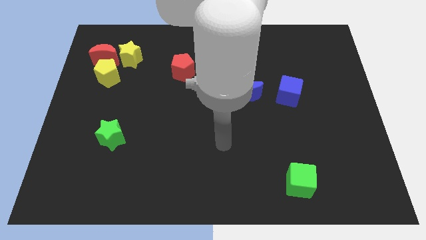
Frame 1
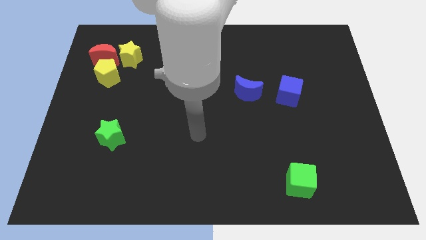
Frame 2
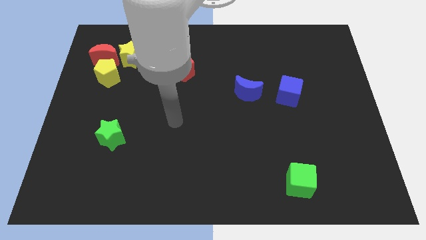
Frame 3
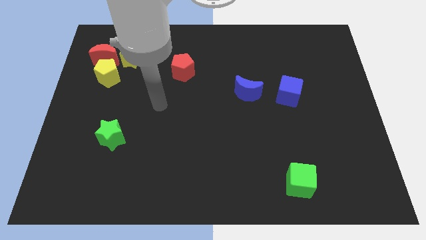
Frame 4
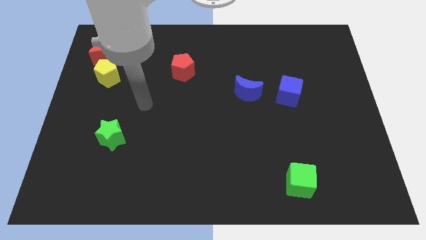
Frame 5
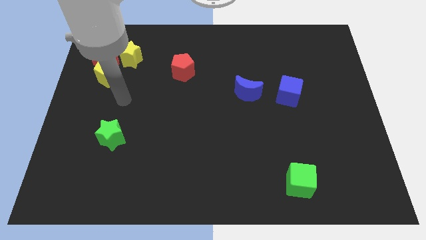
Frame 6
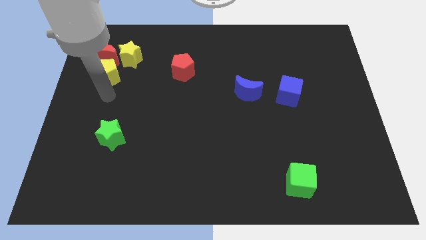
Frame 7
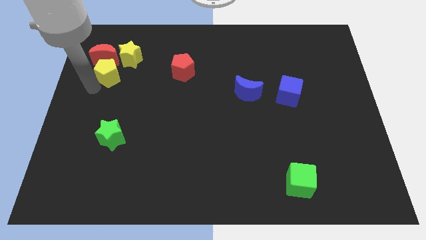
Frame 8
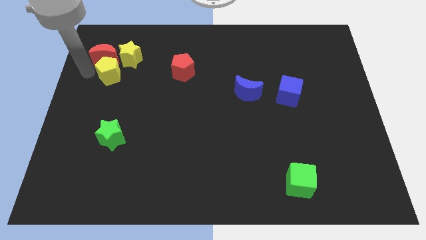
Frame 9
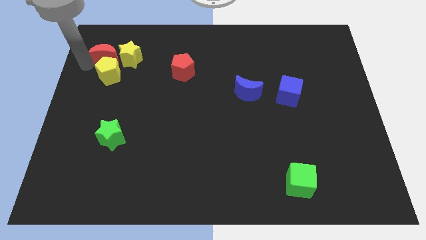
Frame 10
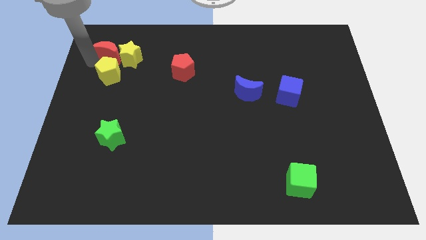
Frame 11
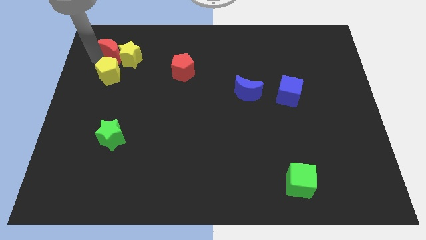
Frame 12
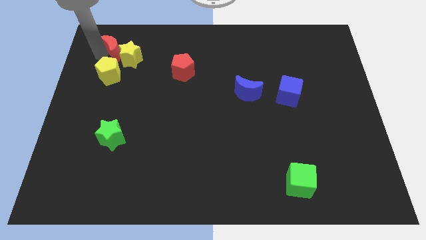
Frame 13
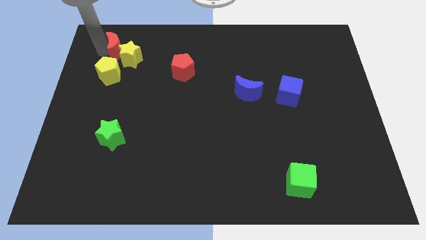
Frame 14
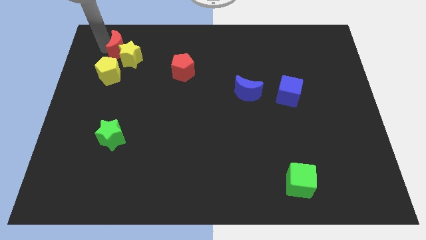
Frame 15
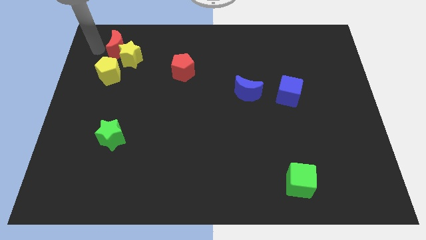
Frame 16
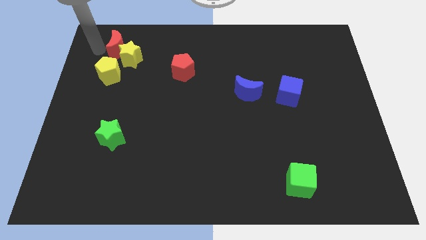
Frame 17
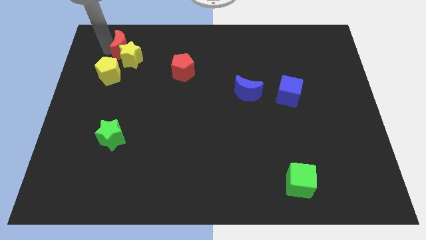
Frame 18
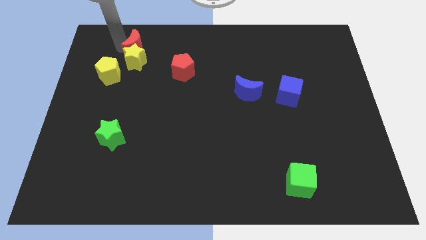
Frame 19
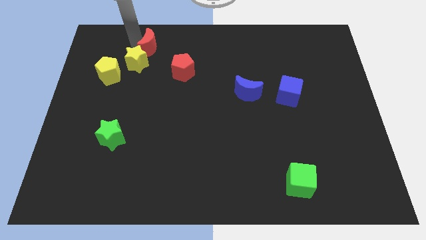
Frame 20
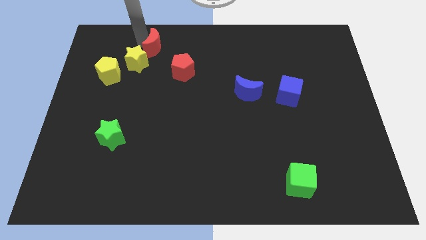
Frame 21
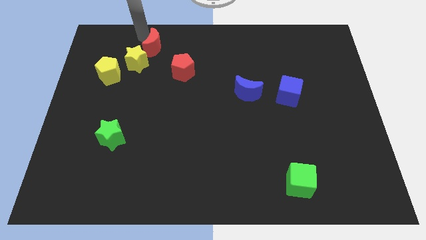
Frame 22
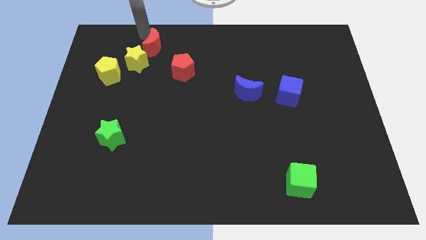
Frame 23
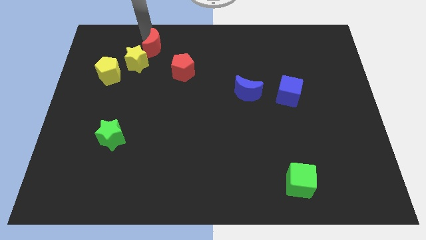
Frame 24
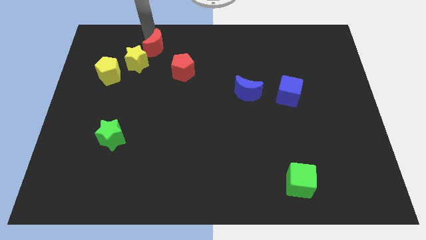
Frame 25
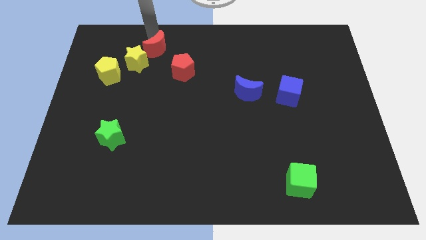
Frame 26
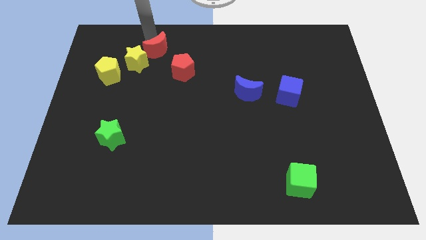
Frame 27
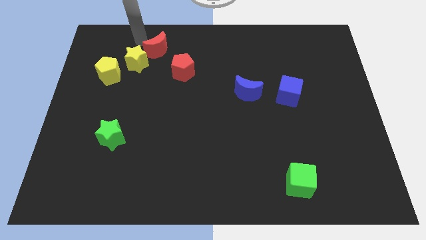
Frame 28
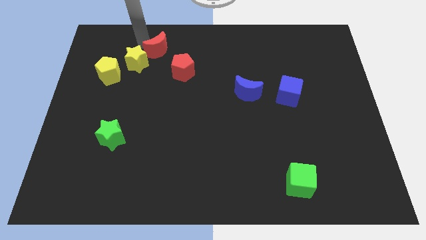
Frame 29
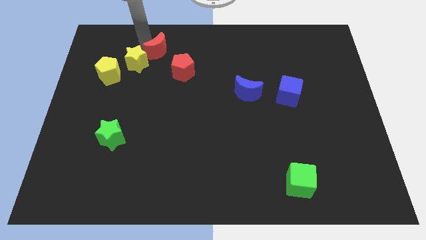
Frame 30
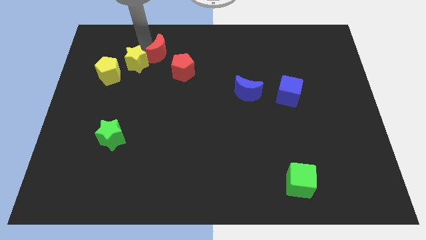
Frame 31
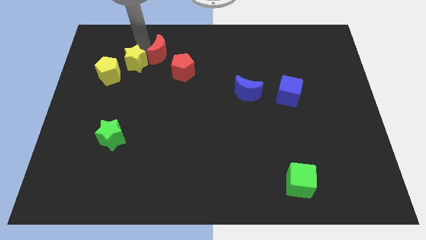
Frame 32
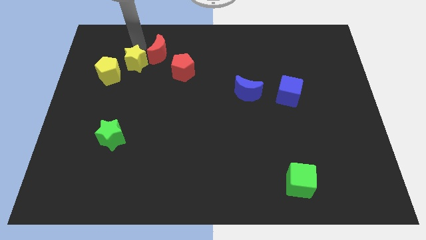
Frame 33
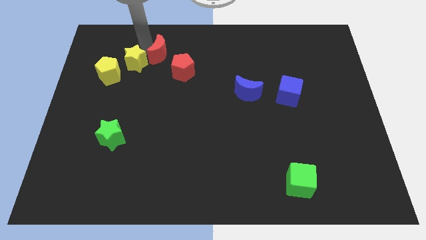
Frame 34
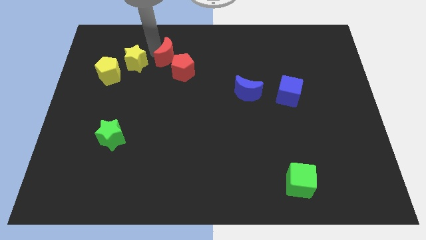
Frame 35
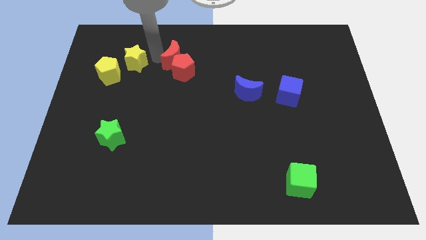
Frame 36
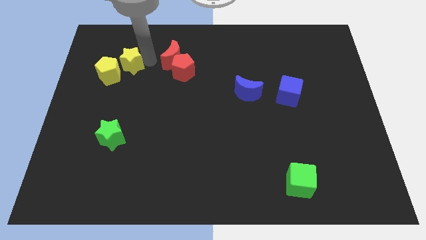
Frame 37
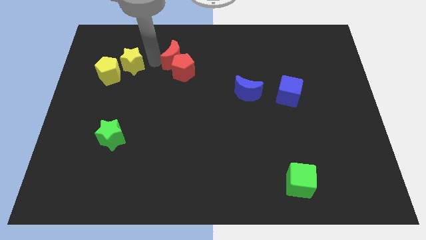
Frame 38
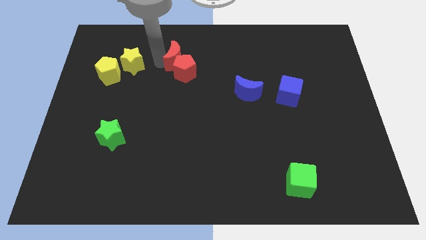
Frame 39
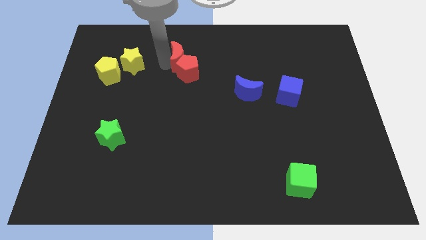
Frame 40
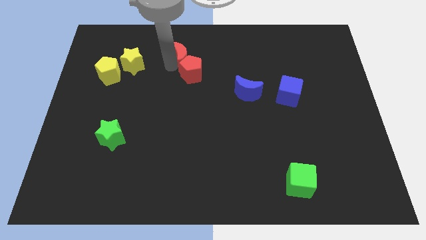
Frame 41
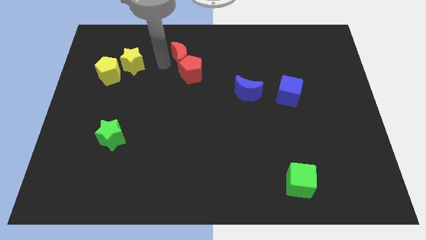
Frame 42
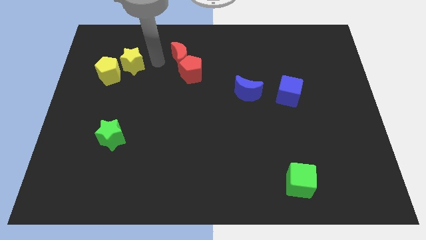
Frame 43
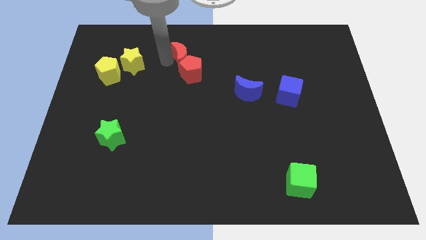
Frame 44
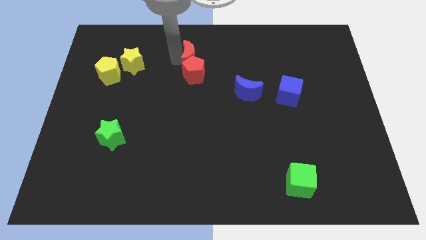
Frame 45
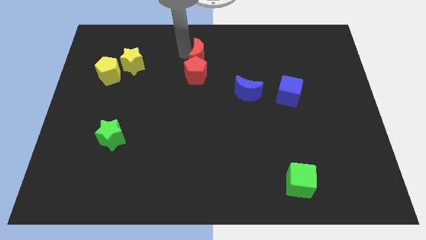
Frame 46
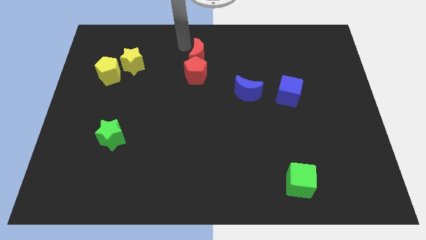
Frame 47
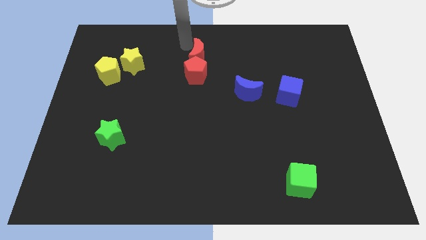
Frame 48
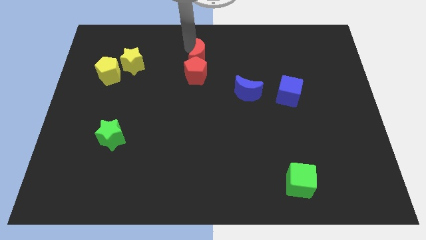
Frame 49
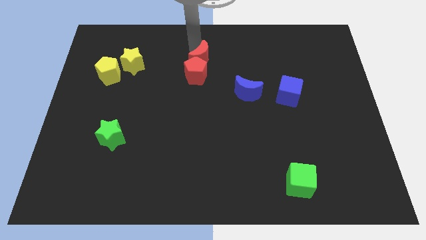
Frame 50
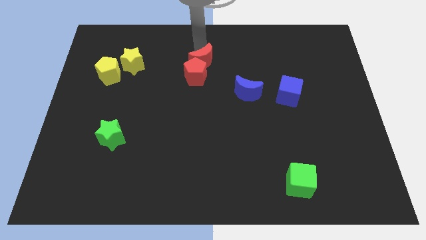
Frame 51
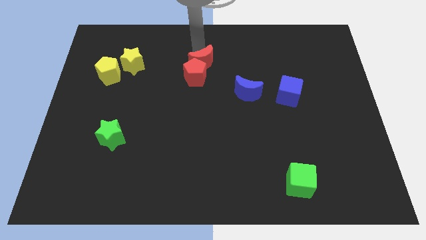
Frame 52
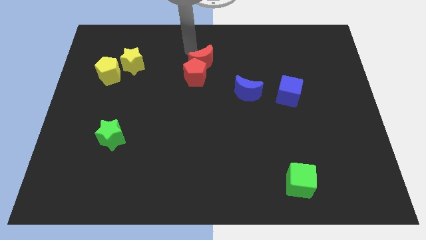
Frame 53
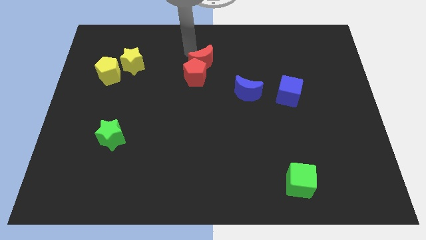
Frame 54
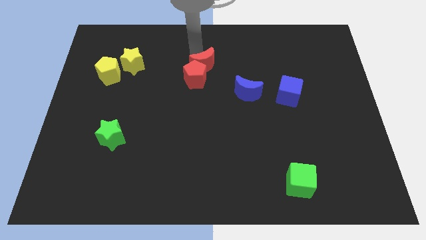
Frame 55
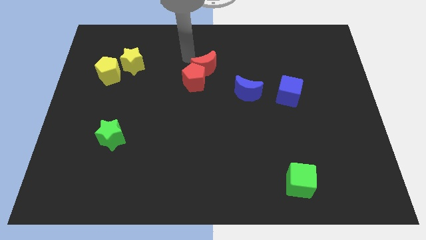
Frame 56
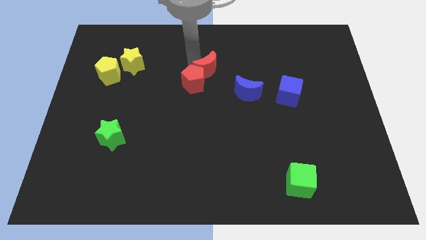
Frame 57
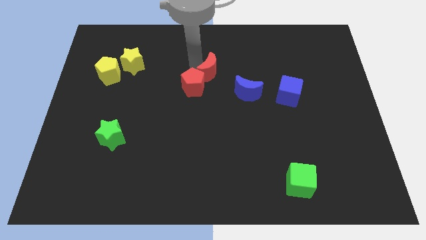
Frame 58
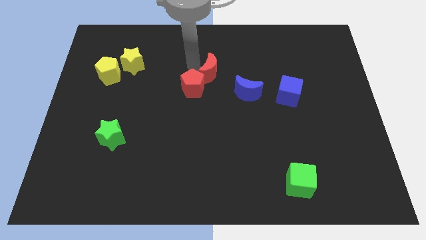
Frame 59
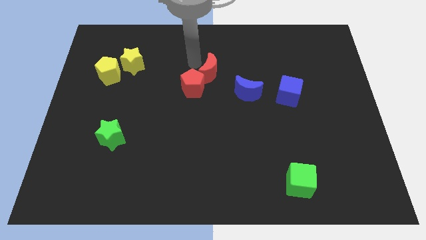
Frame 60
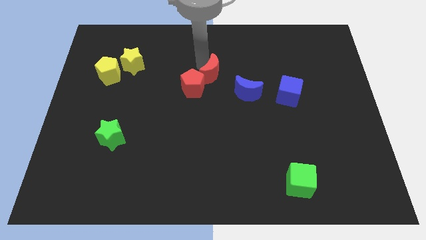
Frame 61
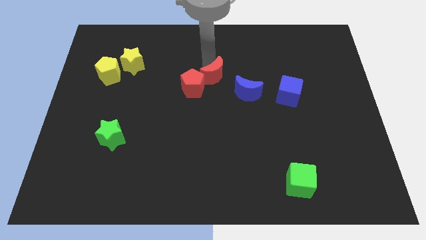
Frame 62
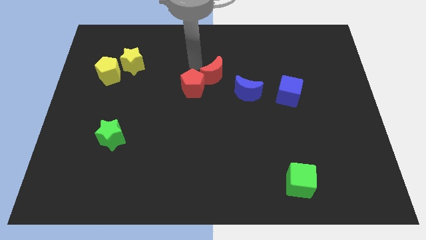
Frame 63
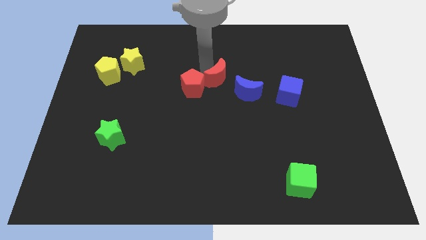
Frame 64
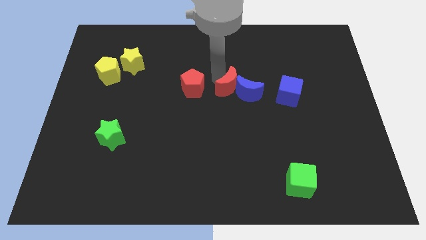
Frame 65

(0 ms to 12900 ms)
push the red moon close to the blue moon

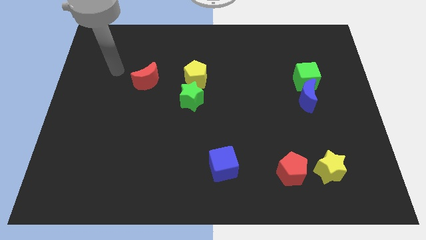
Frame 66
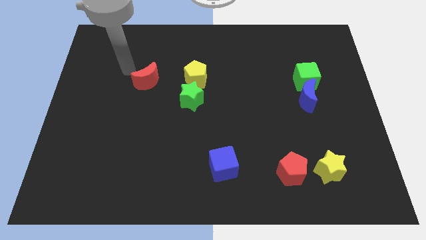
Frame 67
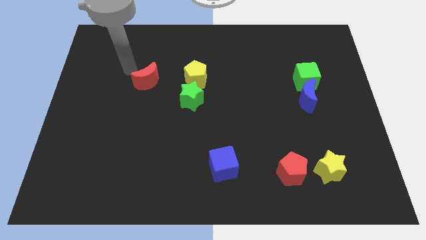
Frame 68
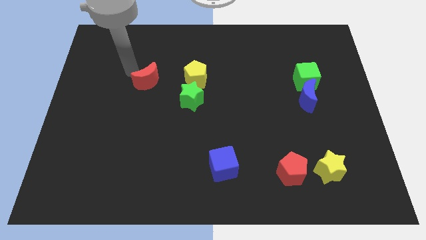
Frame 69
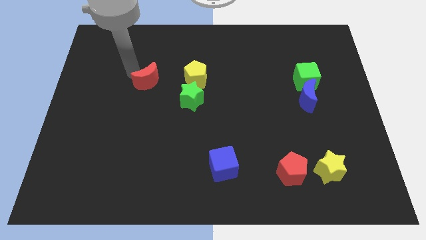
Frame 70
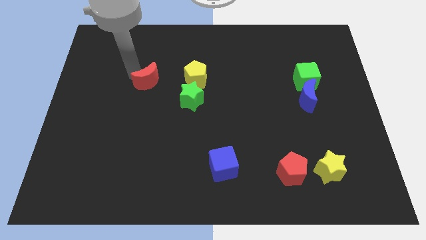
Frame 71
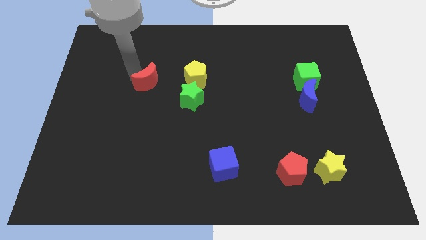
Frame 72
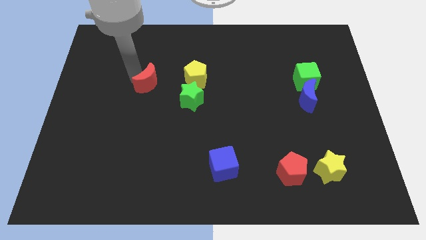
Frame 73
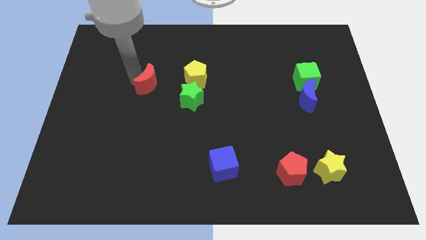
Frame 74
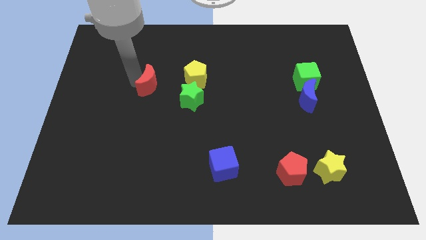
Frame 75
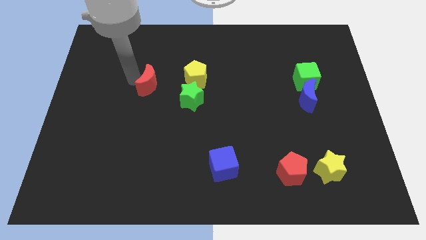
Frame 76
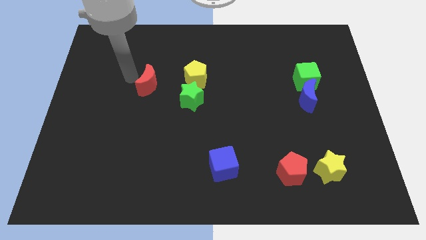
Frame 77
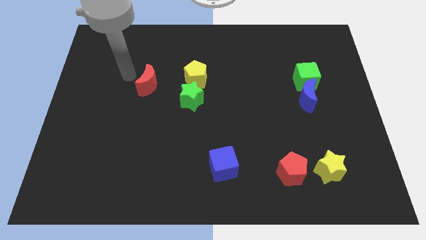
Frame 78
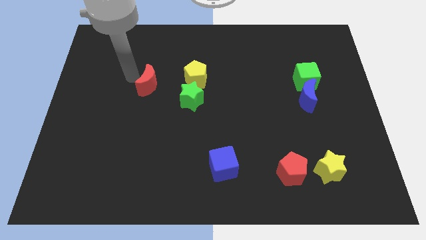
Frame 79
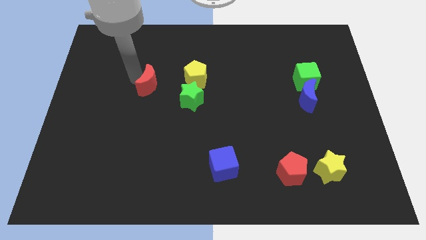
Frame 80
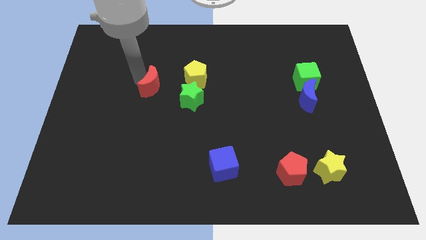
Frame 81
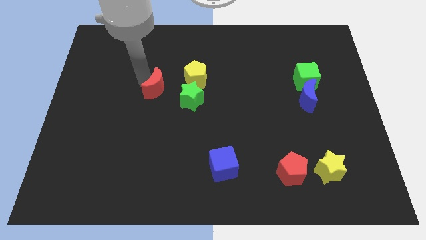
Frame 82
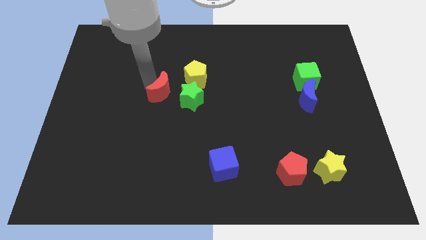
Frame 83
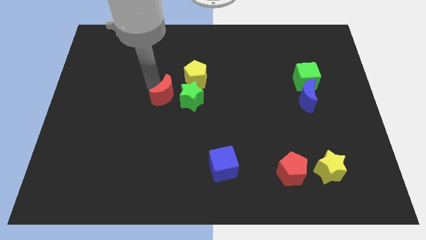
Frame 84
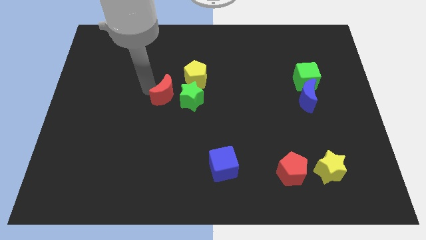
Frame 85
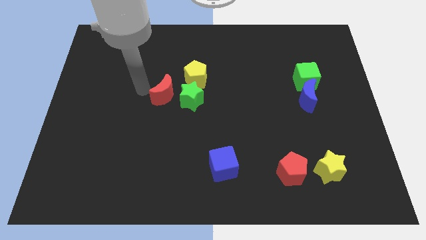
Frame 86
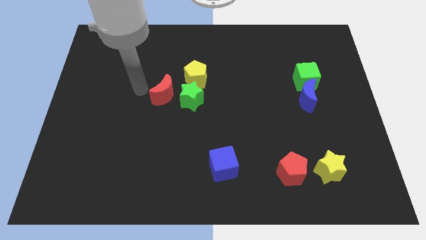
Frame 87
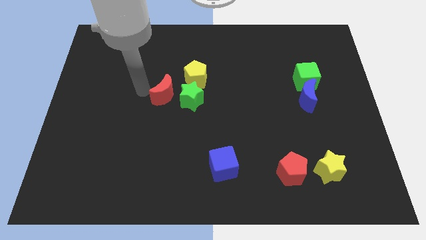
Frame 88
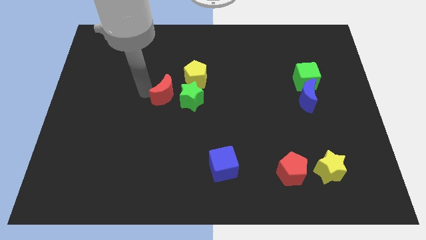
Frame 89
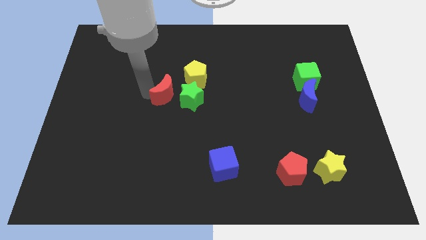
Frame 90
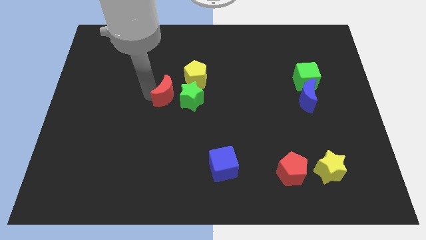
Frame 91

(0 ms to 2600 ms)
move the red moon to the green star
